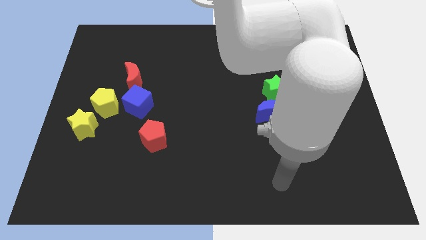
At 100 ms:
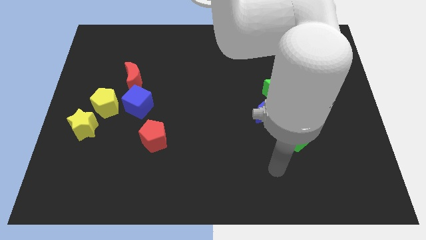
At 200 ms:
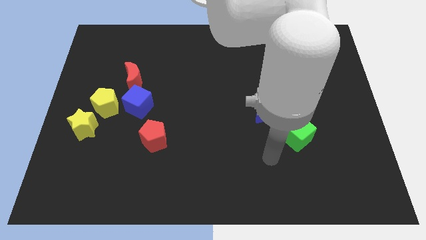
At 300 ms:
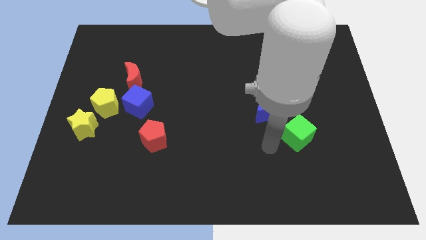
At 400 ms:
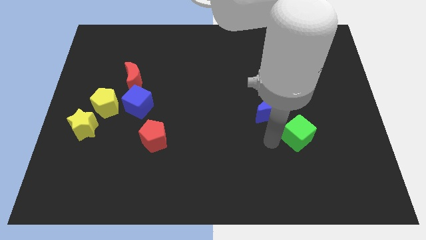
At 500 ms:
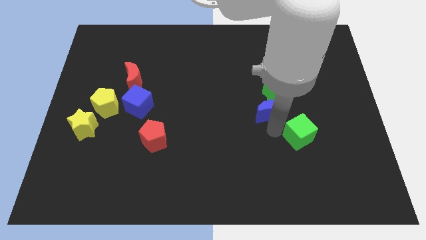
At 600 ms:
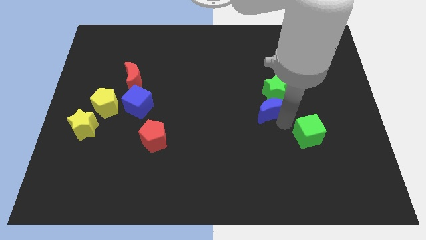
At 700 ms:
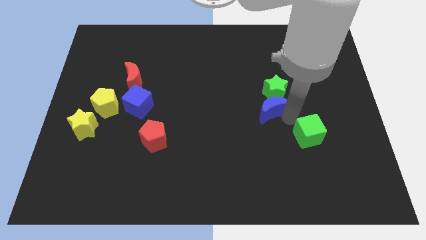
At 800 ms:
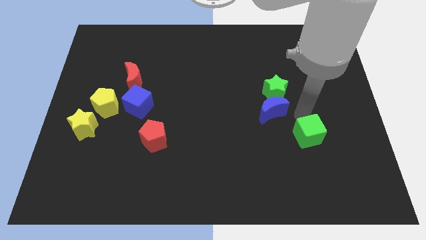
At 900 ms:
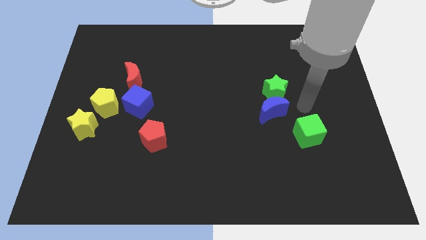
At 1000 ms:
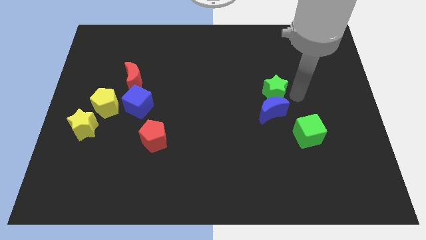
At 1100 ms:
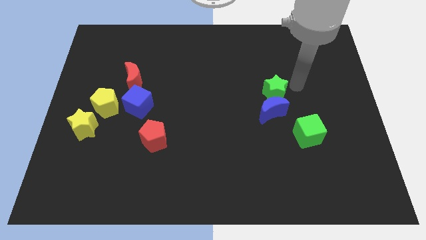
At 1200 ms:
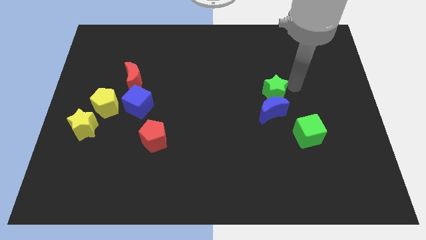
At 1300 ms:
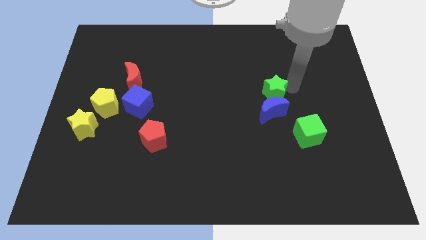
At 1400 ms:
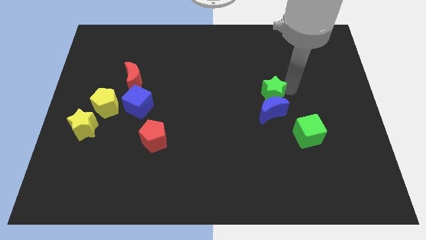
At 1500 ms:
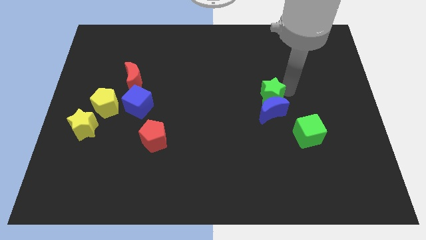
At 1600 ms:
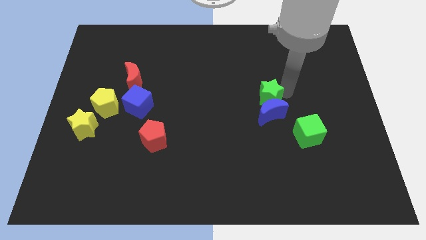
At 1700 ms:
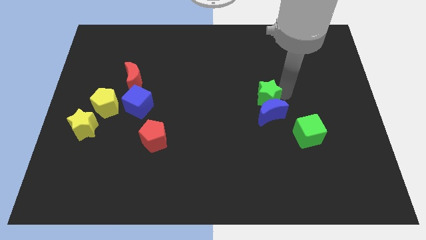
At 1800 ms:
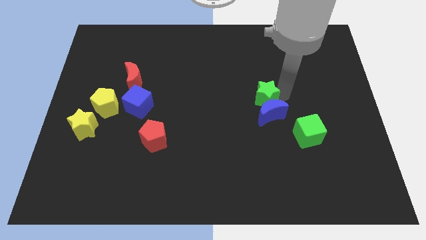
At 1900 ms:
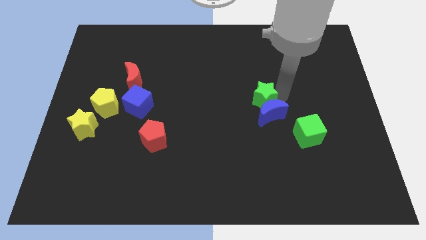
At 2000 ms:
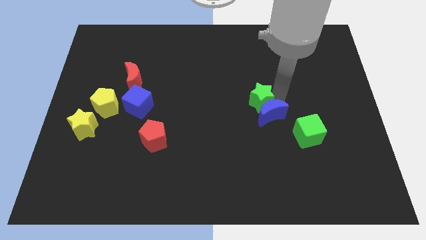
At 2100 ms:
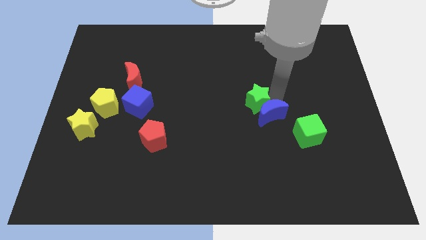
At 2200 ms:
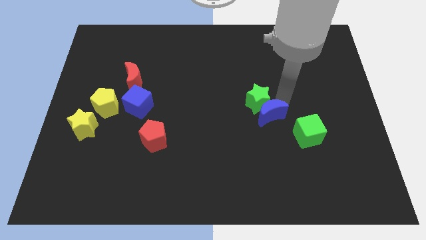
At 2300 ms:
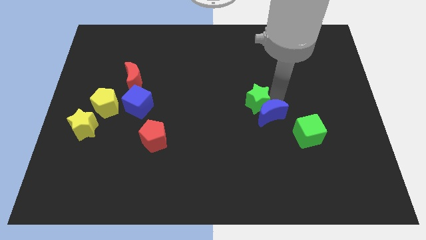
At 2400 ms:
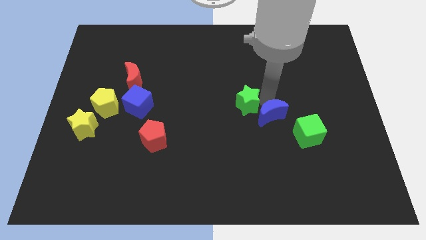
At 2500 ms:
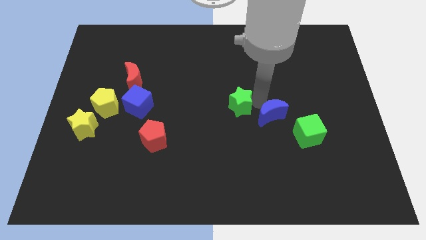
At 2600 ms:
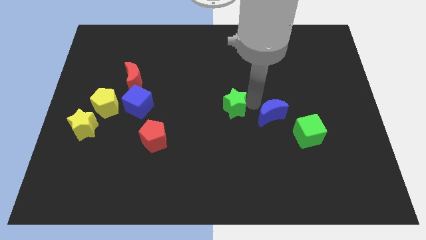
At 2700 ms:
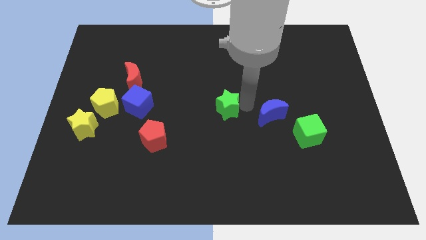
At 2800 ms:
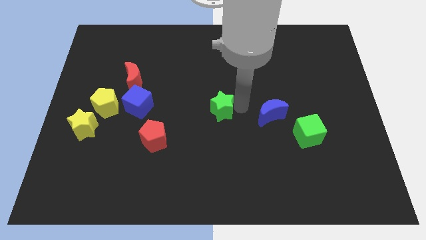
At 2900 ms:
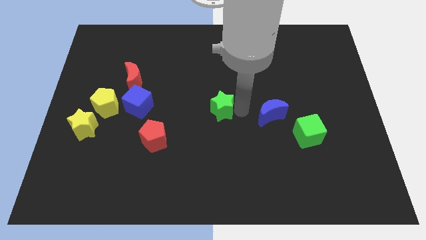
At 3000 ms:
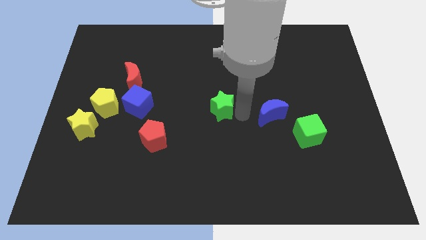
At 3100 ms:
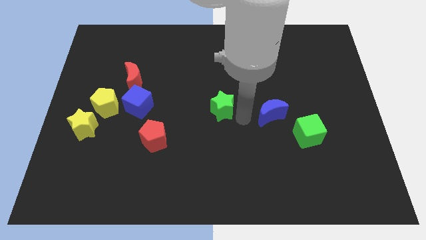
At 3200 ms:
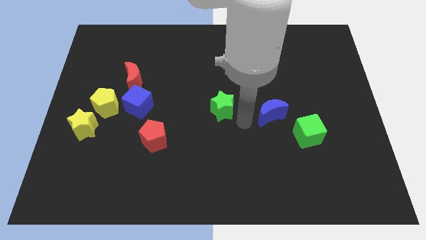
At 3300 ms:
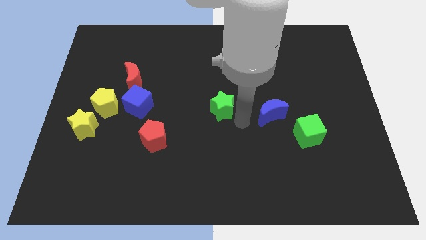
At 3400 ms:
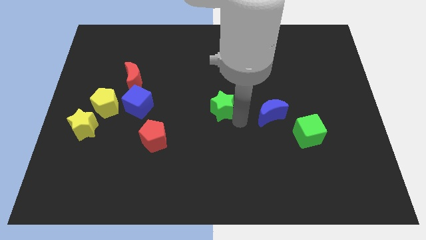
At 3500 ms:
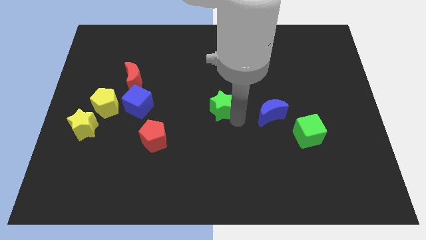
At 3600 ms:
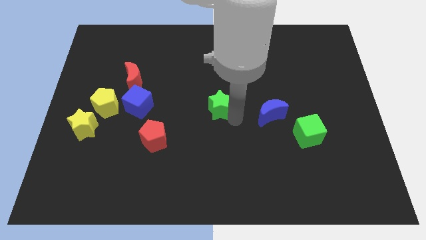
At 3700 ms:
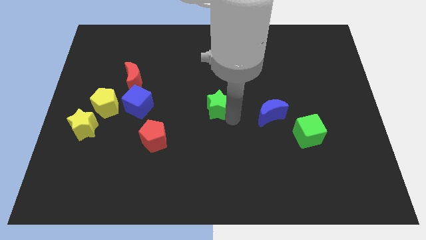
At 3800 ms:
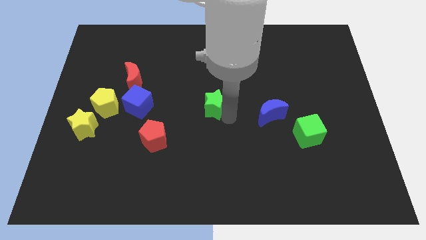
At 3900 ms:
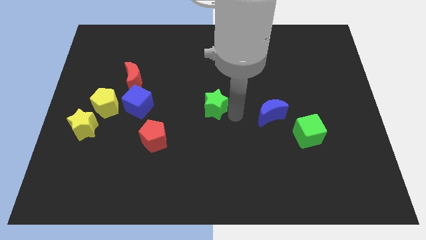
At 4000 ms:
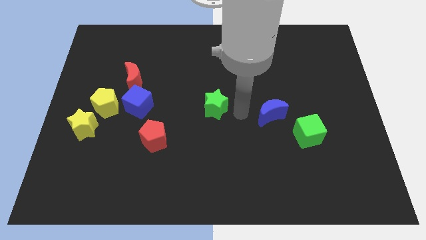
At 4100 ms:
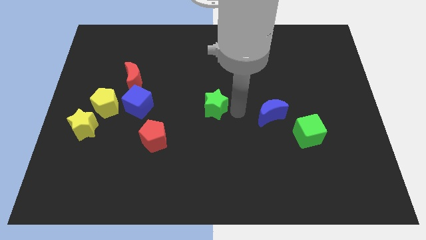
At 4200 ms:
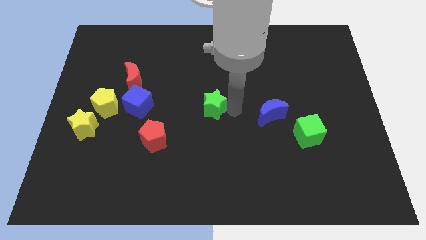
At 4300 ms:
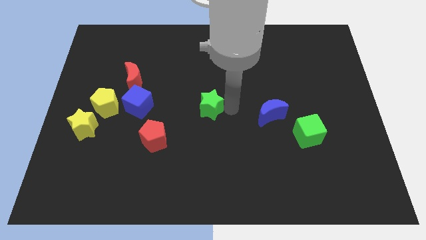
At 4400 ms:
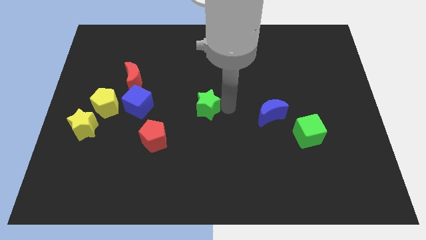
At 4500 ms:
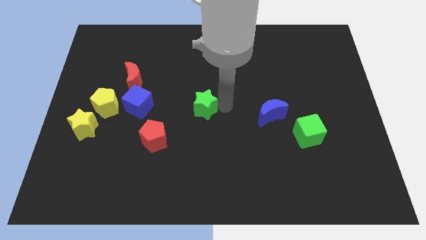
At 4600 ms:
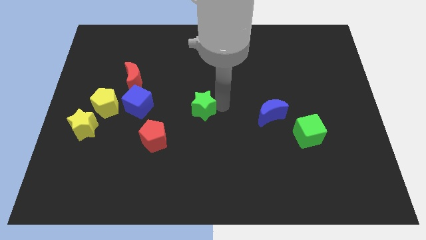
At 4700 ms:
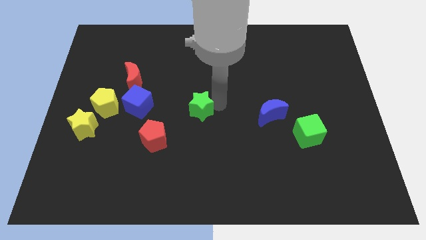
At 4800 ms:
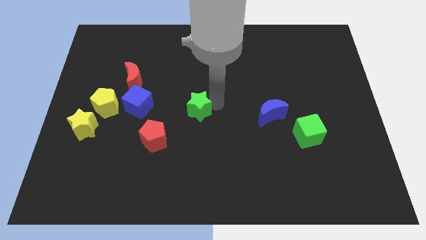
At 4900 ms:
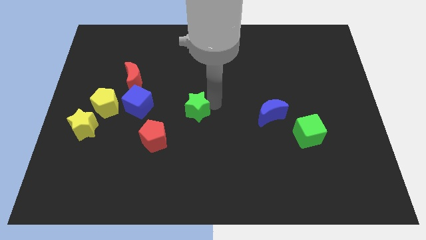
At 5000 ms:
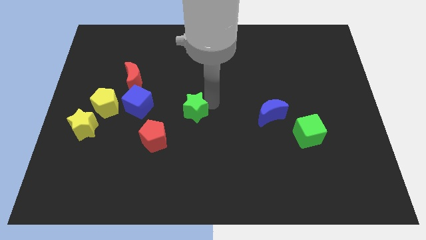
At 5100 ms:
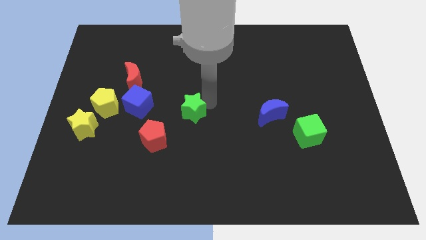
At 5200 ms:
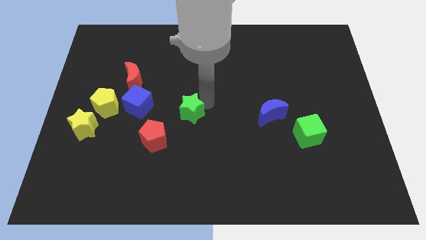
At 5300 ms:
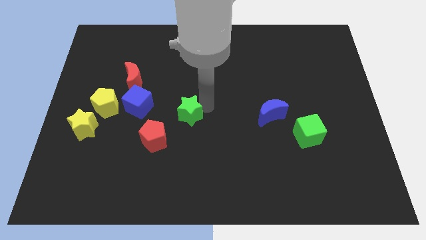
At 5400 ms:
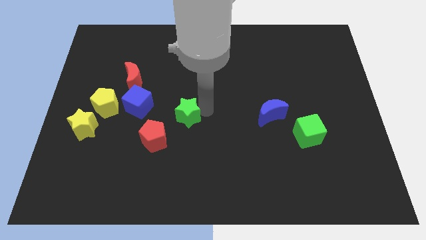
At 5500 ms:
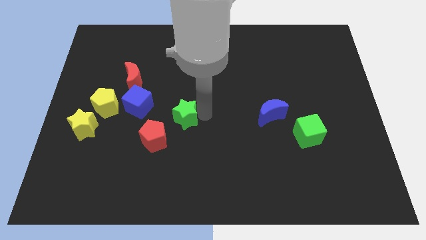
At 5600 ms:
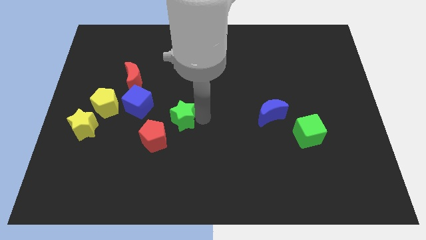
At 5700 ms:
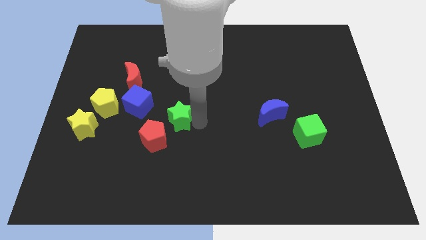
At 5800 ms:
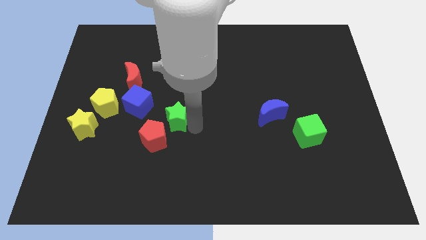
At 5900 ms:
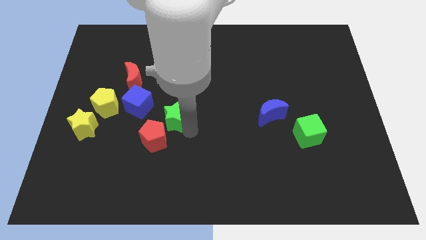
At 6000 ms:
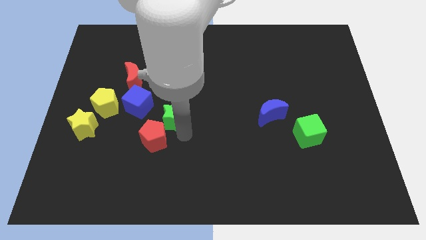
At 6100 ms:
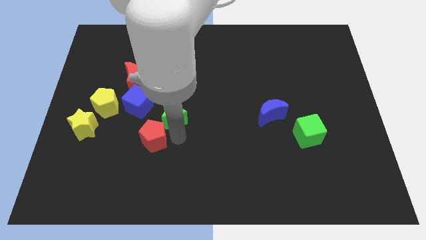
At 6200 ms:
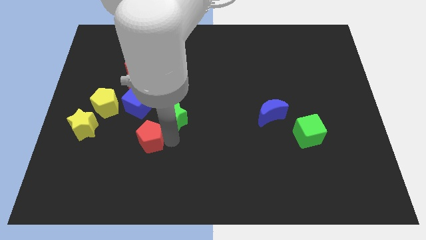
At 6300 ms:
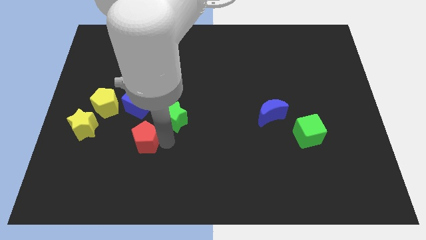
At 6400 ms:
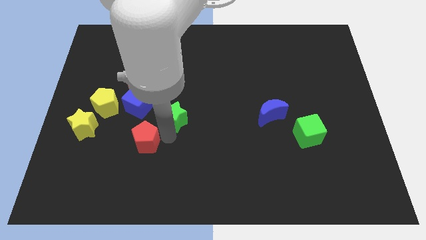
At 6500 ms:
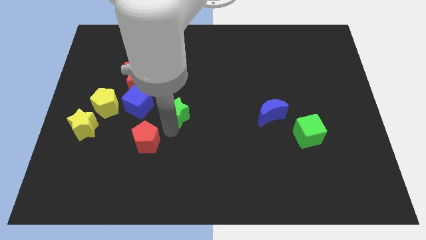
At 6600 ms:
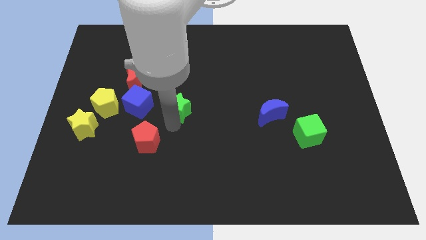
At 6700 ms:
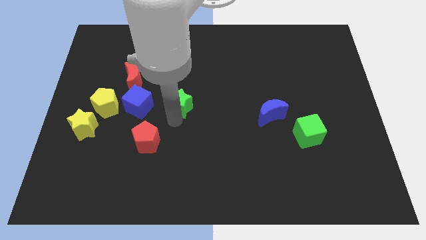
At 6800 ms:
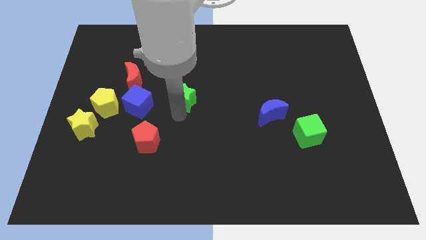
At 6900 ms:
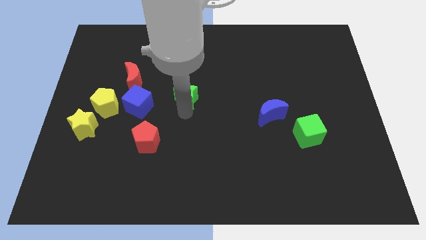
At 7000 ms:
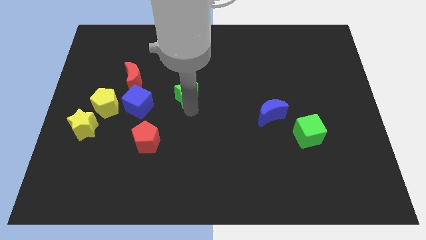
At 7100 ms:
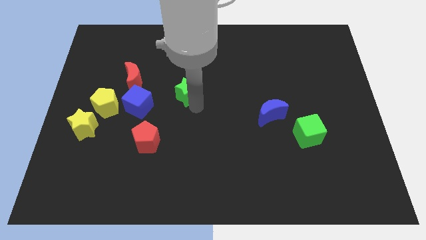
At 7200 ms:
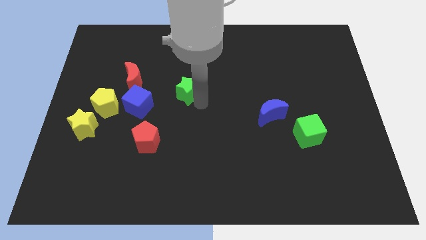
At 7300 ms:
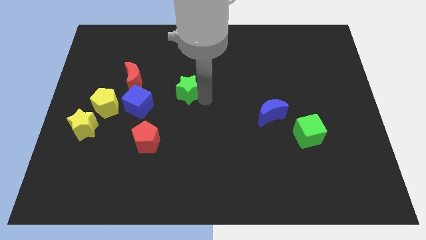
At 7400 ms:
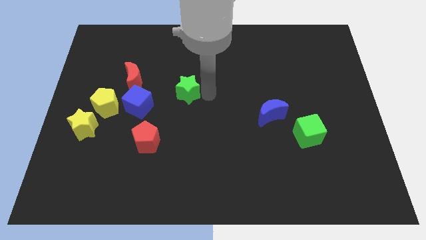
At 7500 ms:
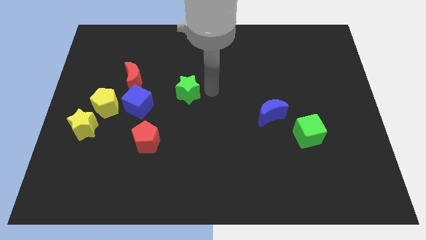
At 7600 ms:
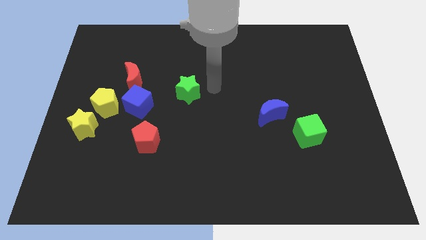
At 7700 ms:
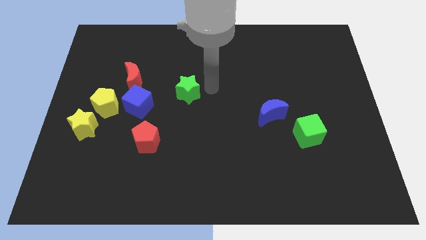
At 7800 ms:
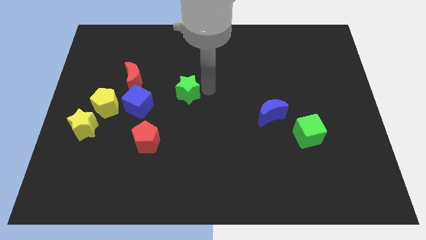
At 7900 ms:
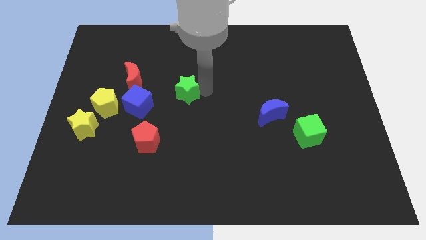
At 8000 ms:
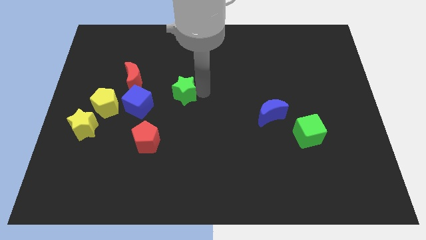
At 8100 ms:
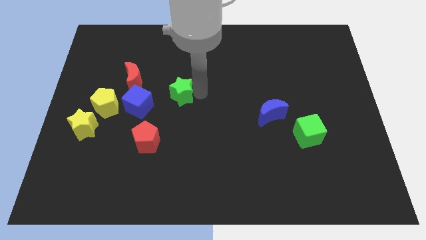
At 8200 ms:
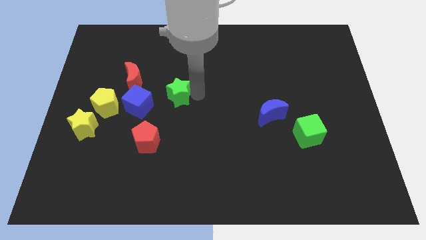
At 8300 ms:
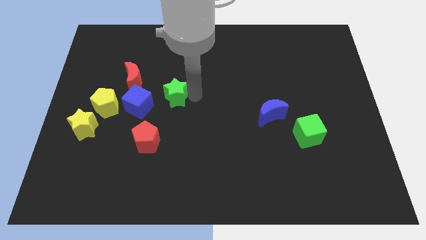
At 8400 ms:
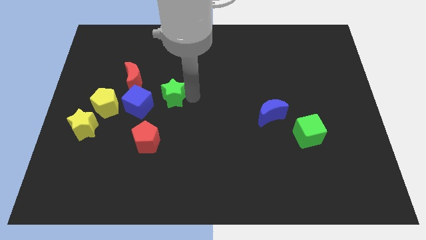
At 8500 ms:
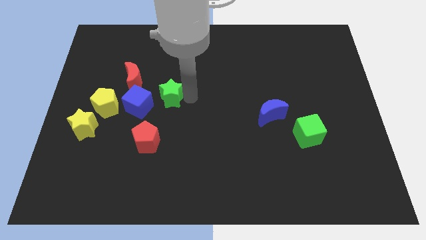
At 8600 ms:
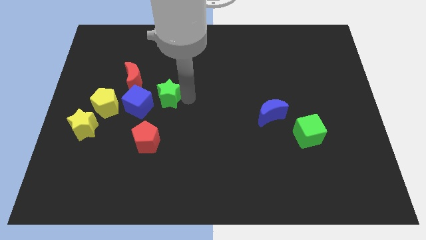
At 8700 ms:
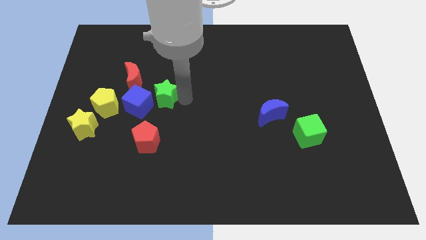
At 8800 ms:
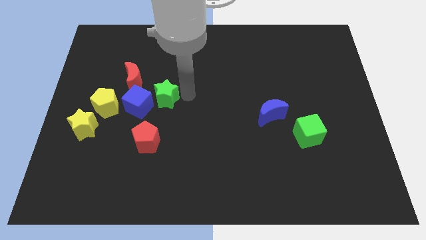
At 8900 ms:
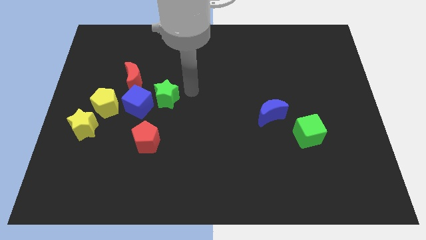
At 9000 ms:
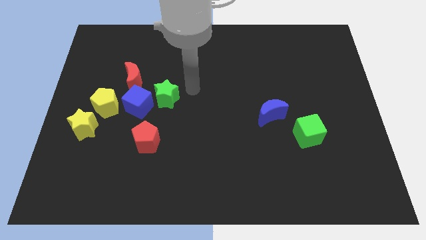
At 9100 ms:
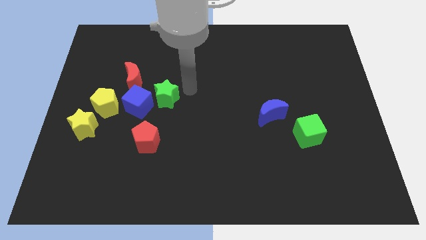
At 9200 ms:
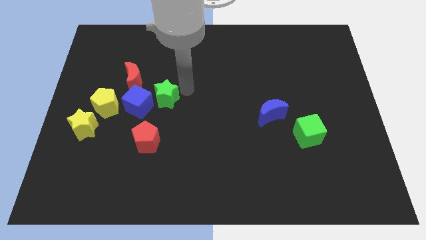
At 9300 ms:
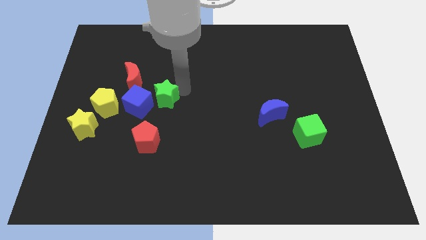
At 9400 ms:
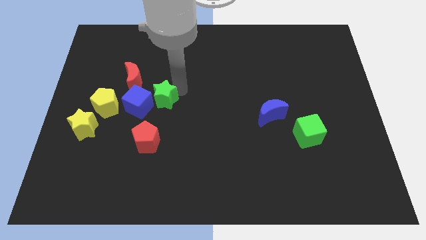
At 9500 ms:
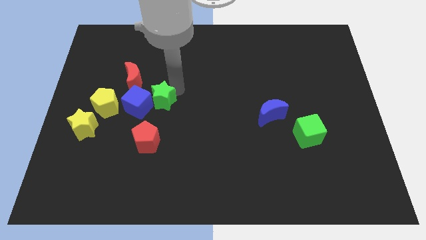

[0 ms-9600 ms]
slide the green star to the blue cube
